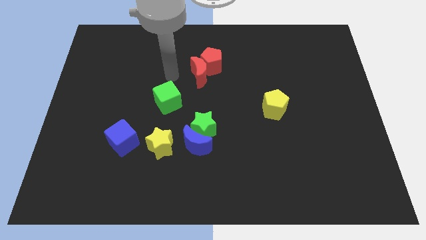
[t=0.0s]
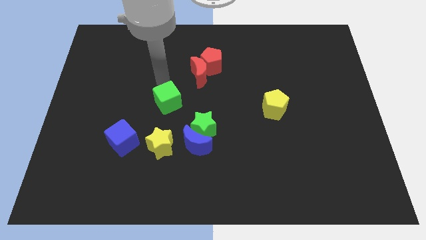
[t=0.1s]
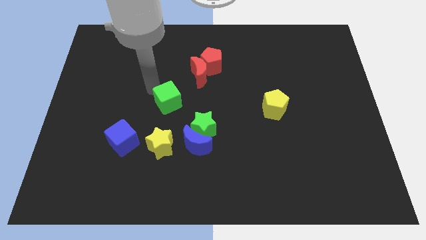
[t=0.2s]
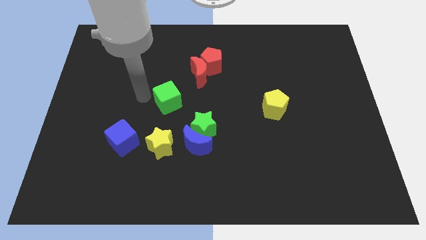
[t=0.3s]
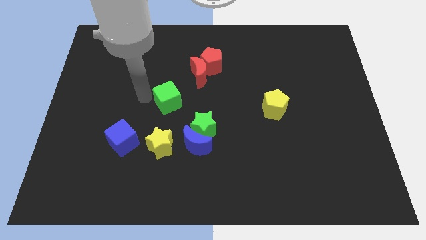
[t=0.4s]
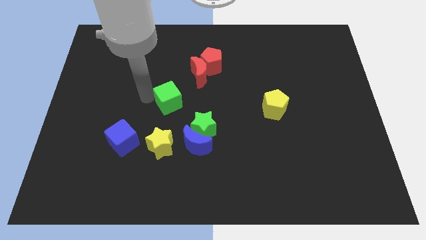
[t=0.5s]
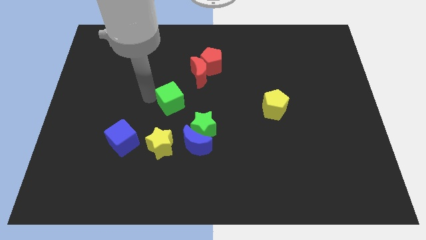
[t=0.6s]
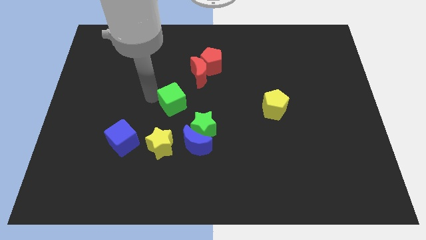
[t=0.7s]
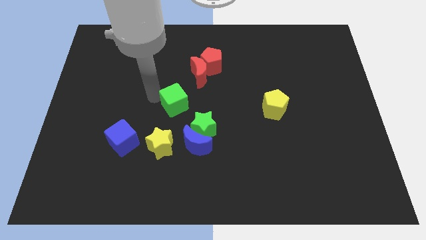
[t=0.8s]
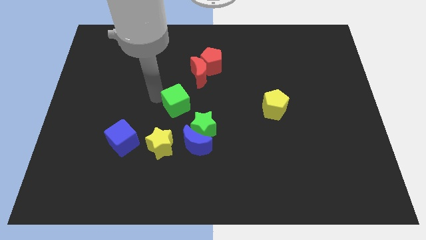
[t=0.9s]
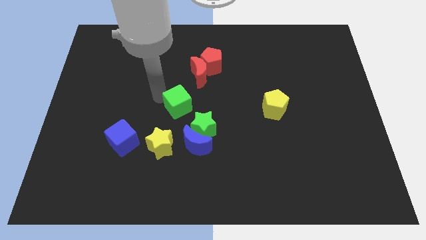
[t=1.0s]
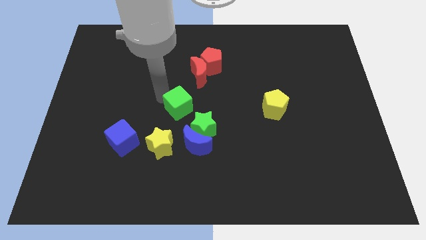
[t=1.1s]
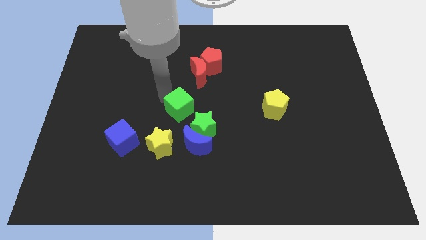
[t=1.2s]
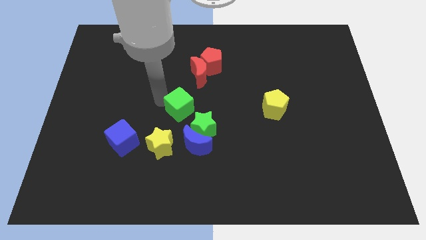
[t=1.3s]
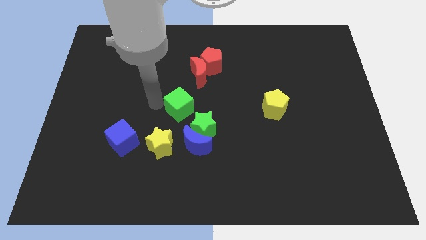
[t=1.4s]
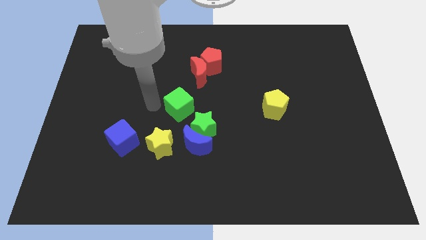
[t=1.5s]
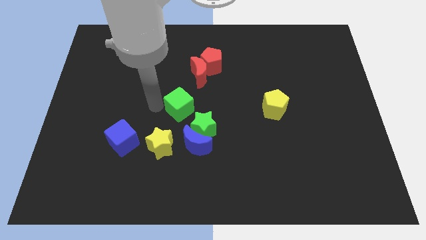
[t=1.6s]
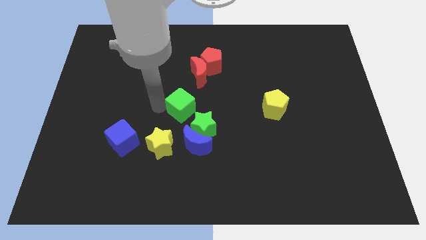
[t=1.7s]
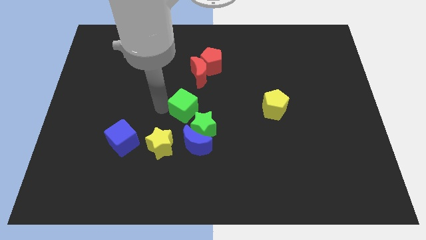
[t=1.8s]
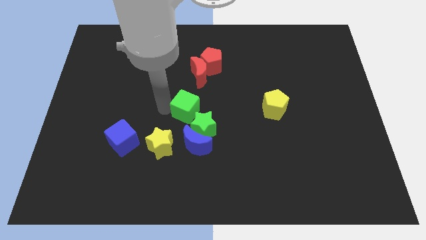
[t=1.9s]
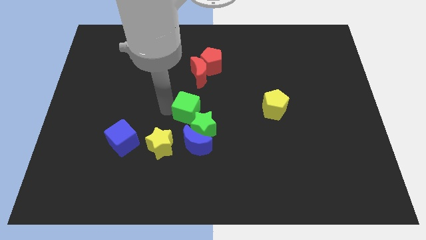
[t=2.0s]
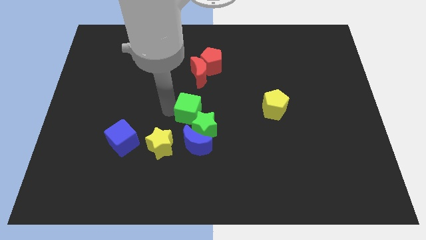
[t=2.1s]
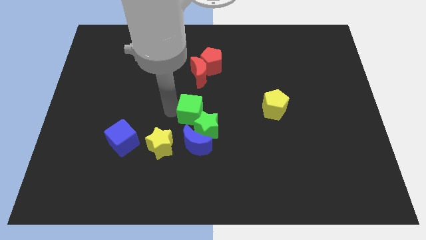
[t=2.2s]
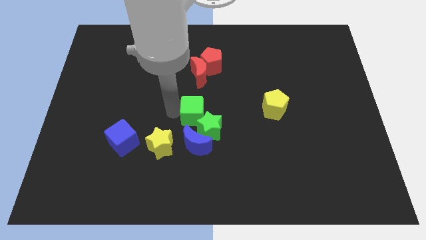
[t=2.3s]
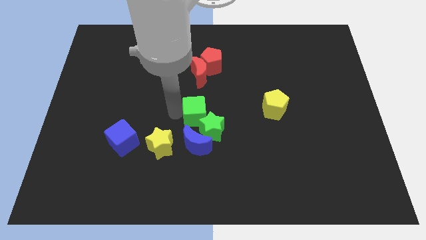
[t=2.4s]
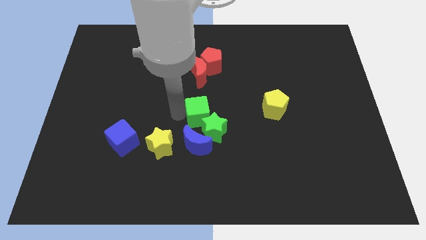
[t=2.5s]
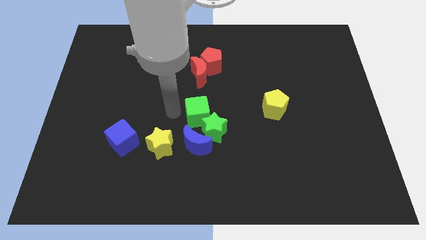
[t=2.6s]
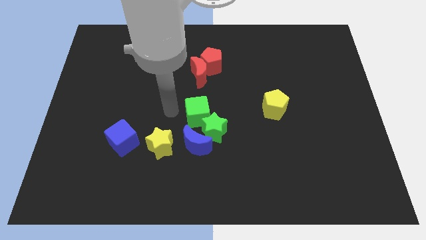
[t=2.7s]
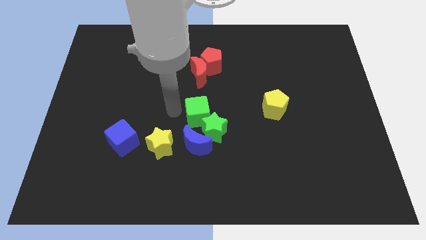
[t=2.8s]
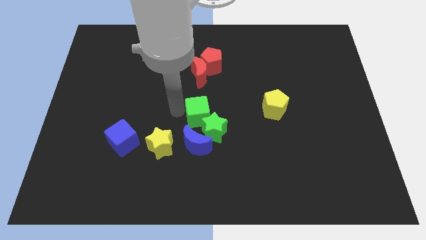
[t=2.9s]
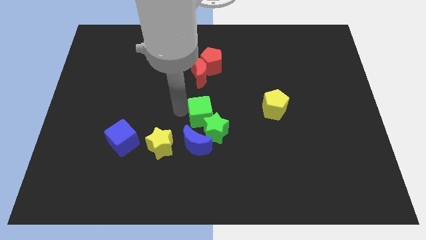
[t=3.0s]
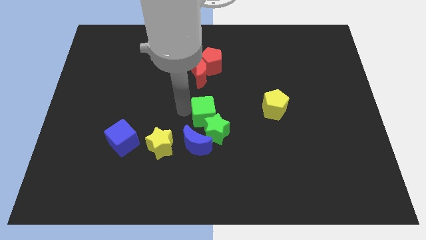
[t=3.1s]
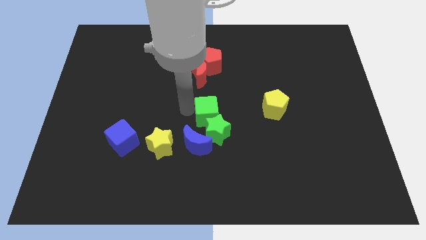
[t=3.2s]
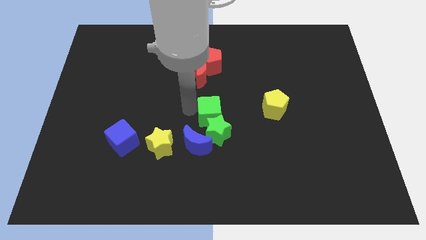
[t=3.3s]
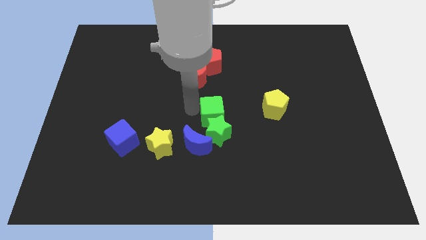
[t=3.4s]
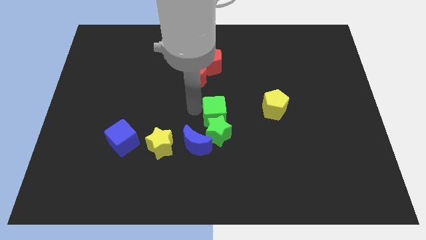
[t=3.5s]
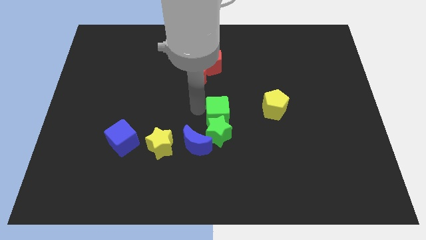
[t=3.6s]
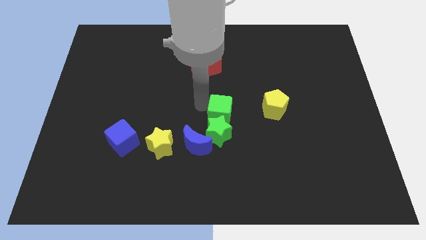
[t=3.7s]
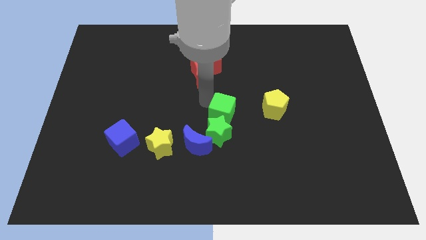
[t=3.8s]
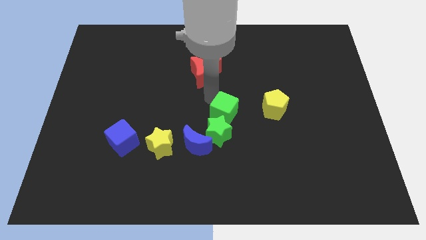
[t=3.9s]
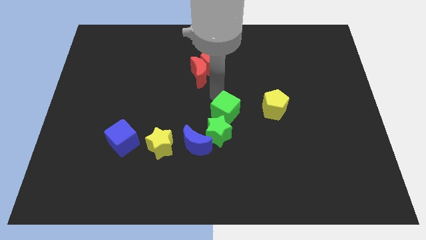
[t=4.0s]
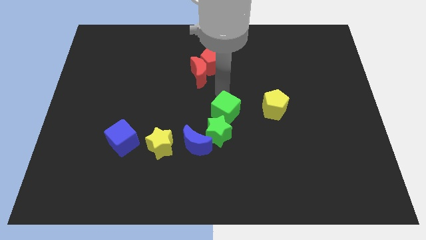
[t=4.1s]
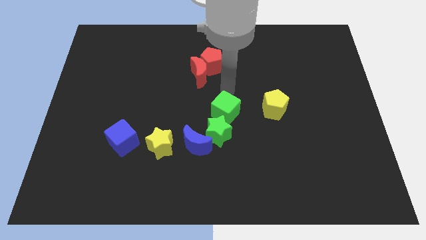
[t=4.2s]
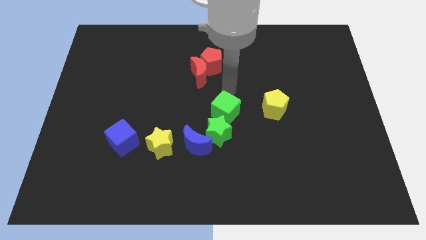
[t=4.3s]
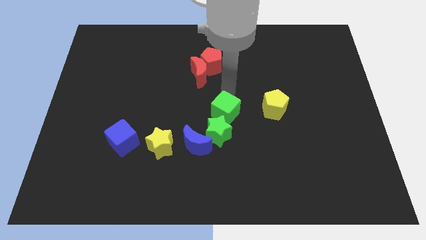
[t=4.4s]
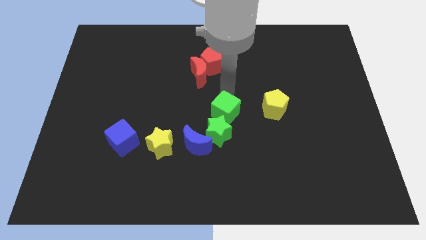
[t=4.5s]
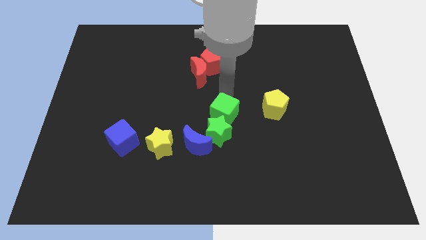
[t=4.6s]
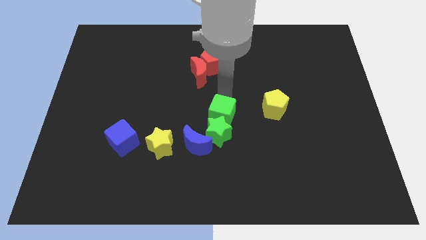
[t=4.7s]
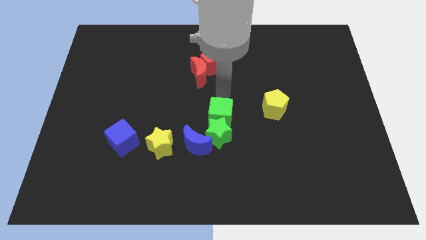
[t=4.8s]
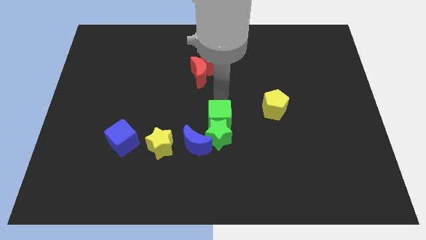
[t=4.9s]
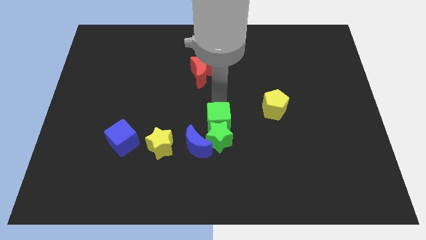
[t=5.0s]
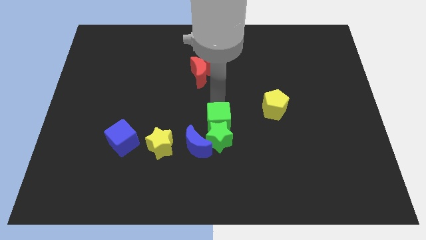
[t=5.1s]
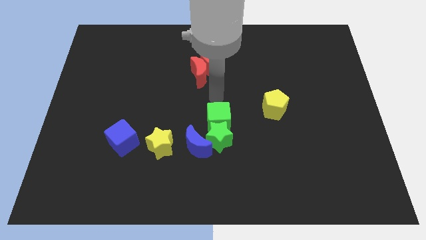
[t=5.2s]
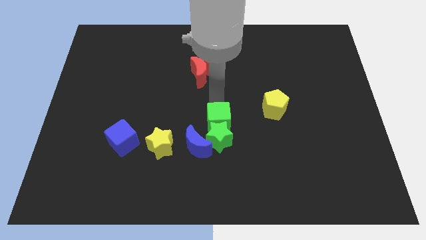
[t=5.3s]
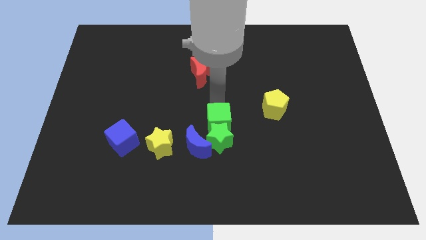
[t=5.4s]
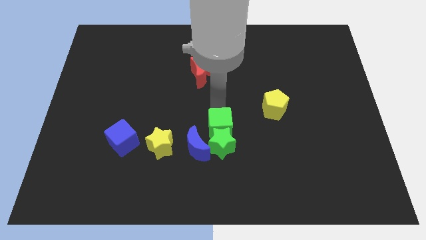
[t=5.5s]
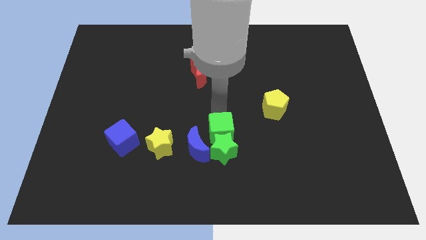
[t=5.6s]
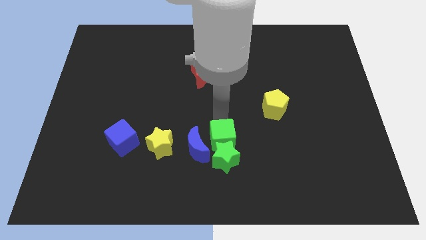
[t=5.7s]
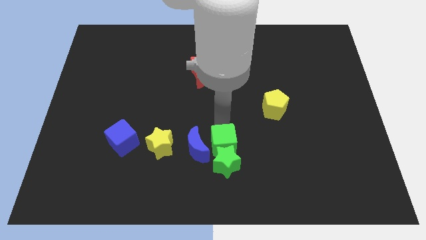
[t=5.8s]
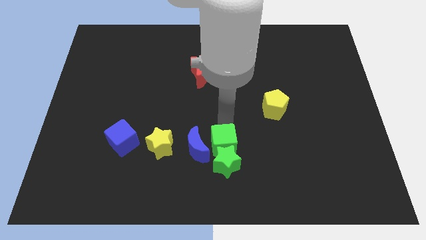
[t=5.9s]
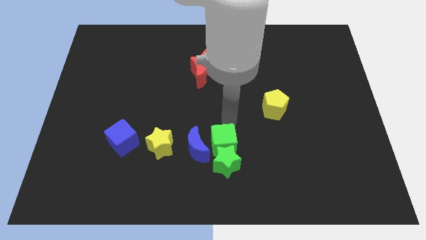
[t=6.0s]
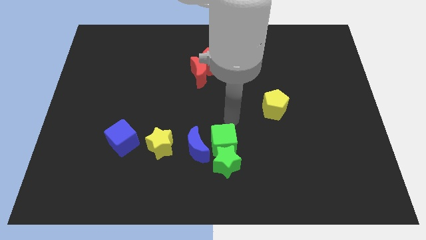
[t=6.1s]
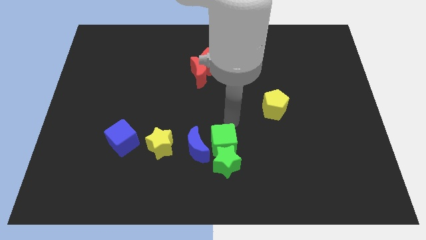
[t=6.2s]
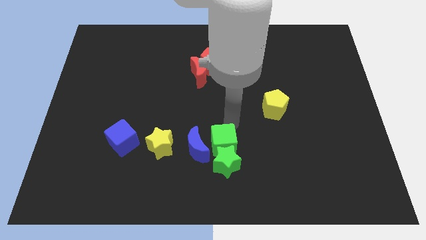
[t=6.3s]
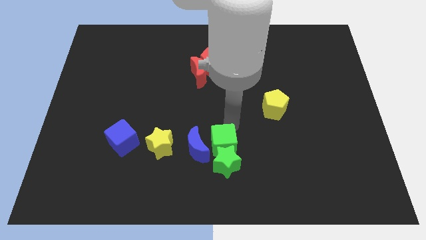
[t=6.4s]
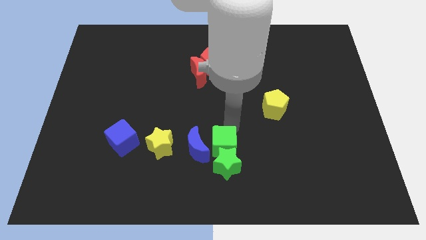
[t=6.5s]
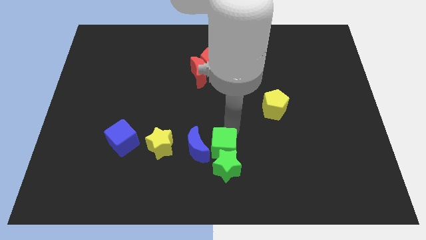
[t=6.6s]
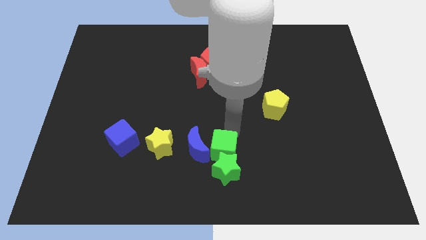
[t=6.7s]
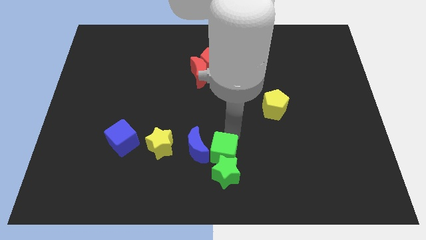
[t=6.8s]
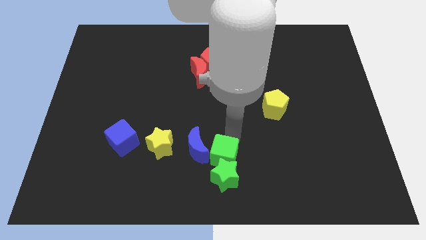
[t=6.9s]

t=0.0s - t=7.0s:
move the green cube to the bottom
